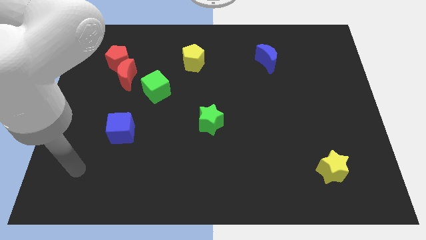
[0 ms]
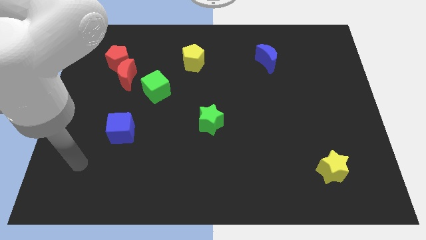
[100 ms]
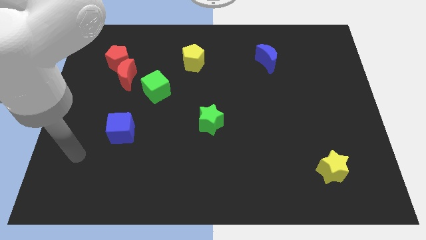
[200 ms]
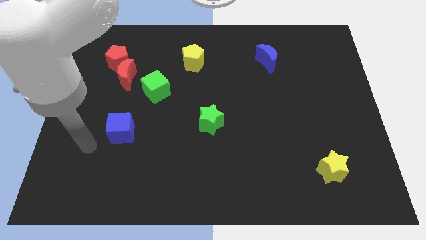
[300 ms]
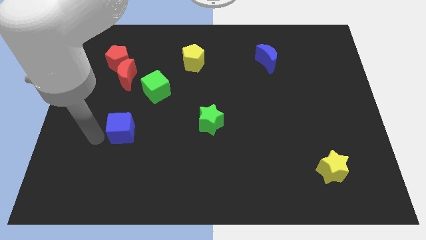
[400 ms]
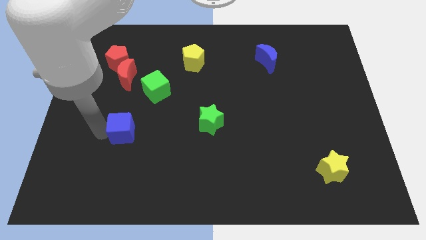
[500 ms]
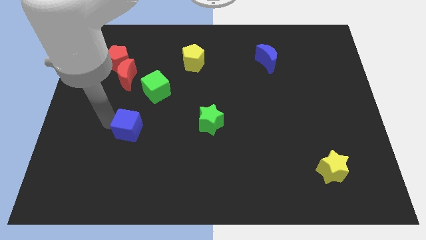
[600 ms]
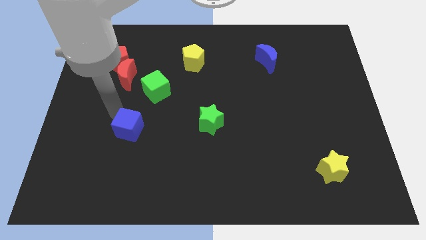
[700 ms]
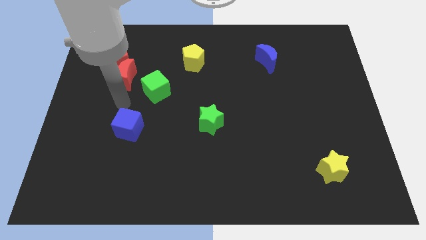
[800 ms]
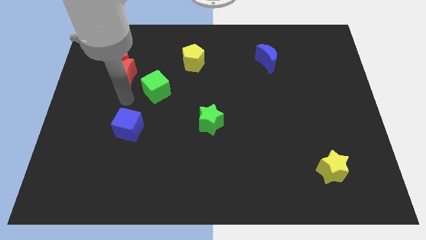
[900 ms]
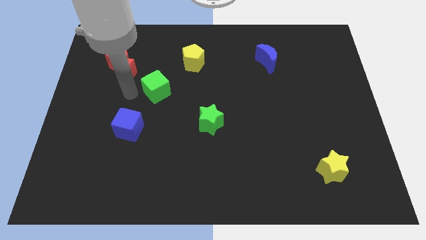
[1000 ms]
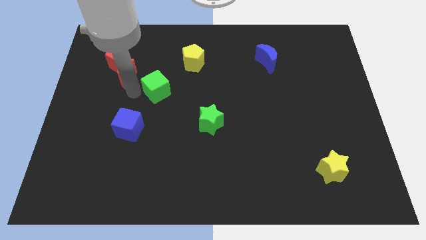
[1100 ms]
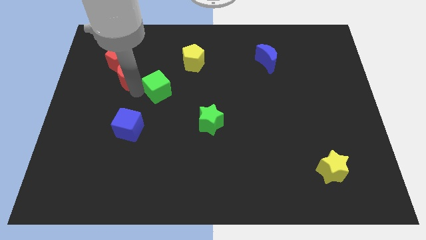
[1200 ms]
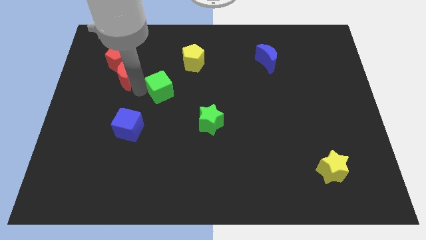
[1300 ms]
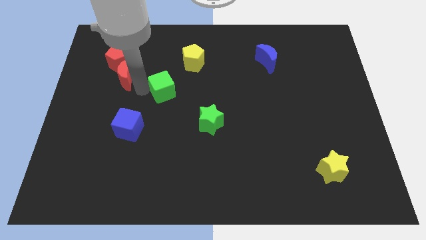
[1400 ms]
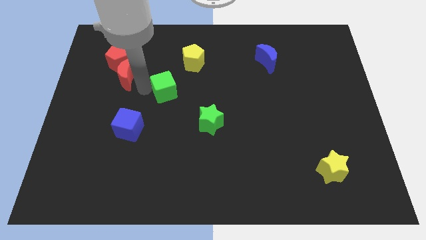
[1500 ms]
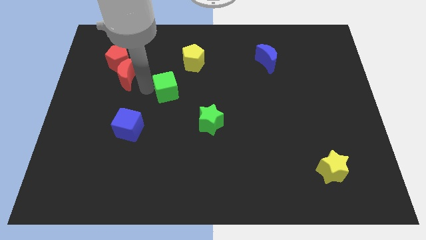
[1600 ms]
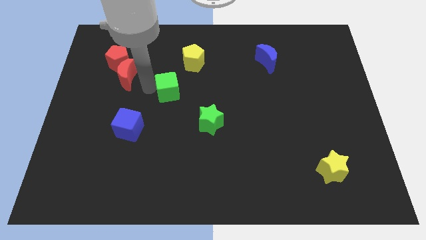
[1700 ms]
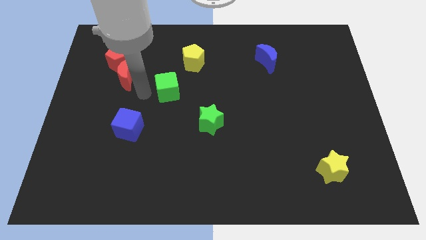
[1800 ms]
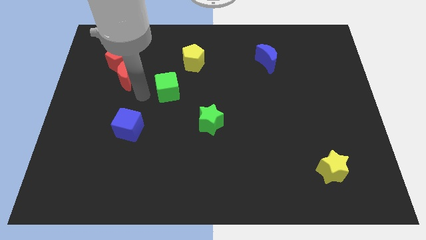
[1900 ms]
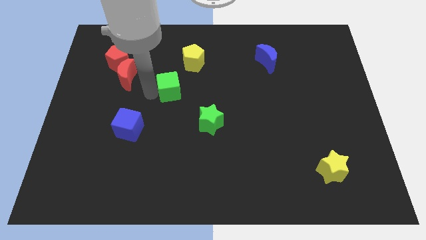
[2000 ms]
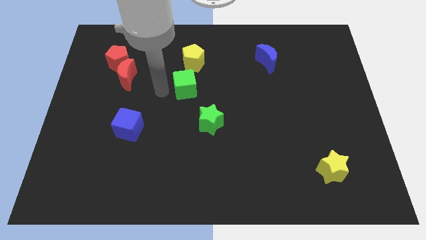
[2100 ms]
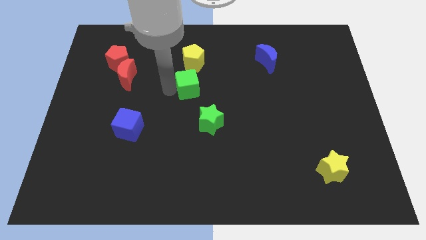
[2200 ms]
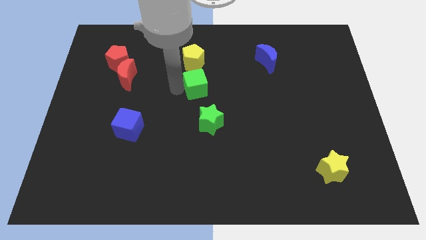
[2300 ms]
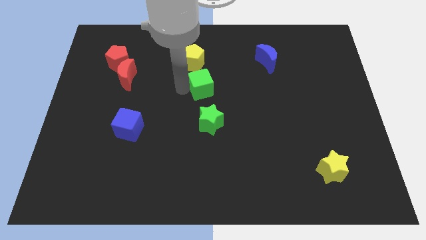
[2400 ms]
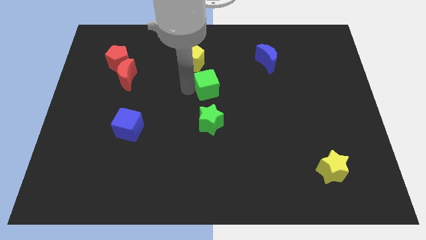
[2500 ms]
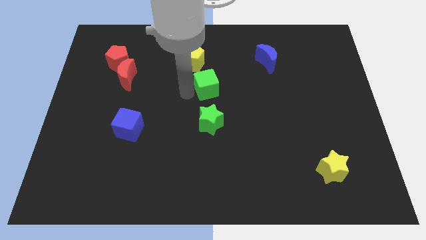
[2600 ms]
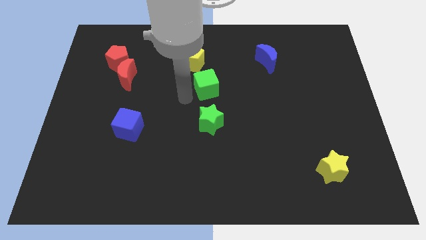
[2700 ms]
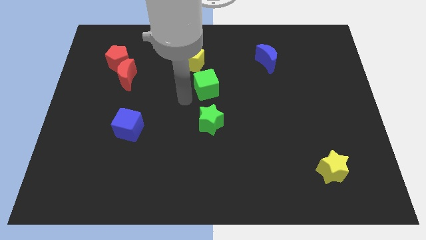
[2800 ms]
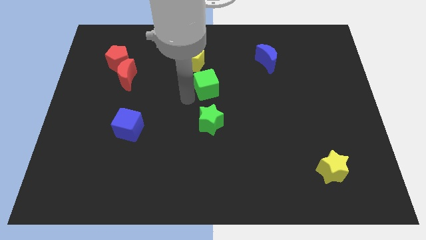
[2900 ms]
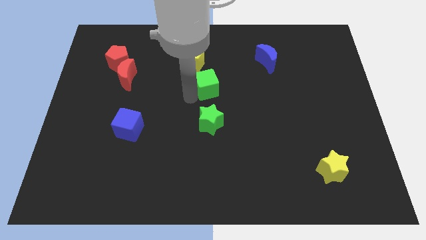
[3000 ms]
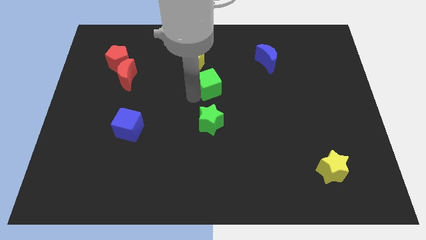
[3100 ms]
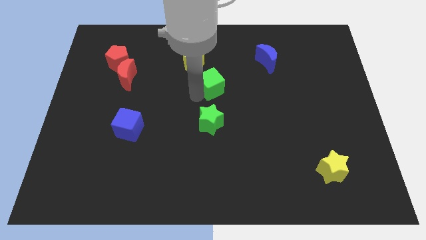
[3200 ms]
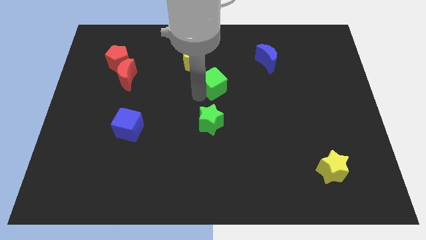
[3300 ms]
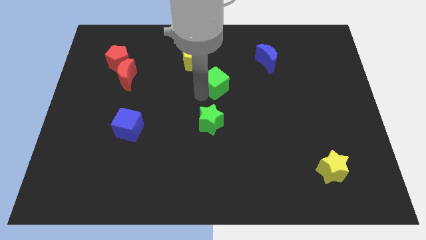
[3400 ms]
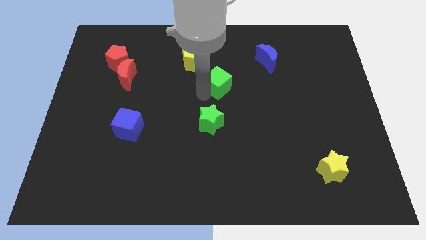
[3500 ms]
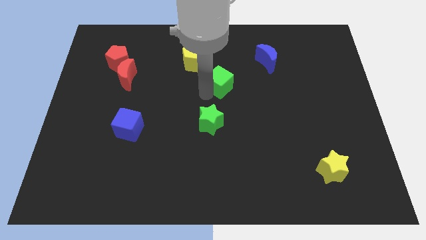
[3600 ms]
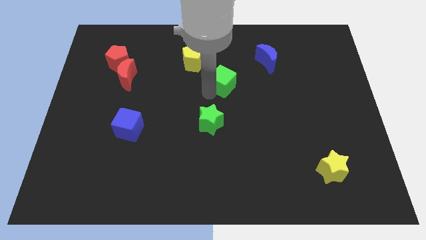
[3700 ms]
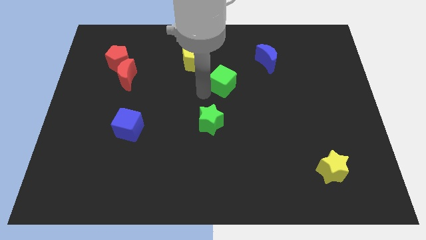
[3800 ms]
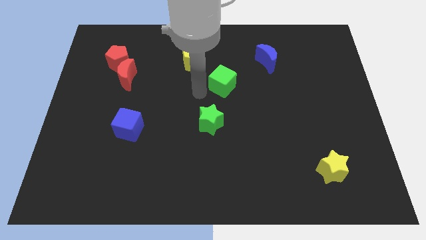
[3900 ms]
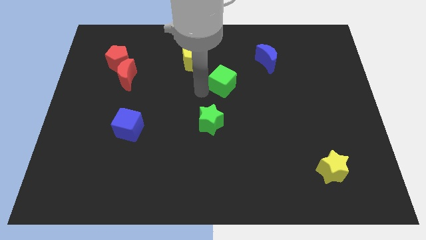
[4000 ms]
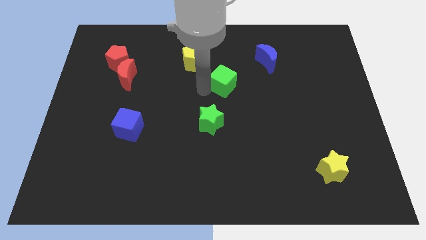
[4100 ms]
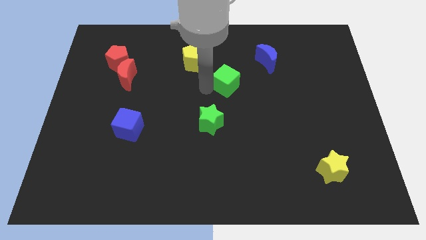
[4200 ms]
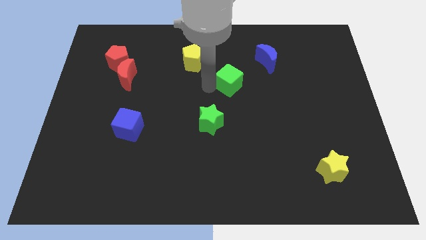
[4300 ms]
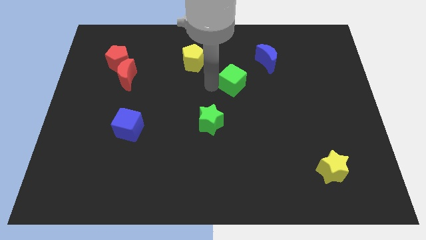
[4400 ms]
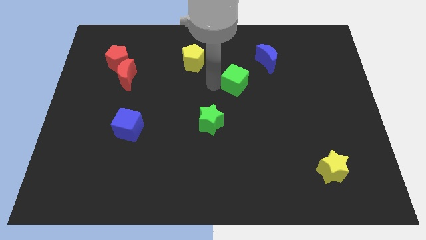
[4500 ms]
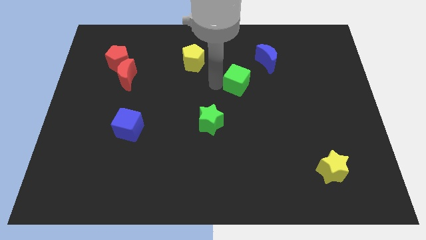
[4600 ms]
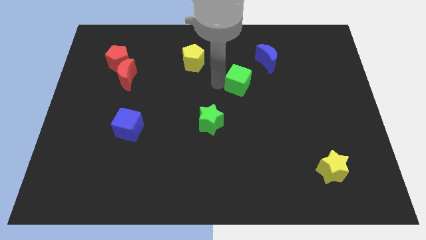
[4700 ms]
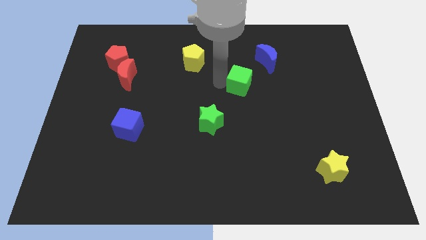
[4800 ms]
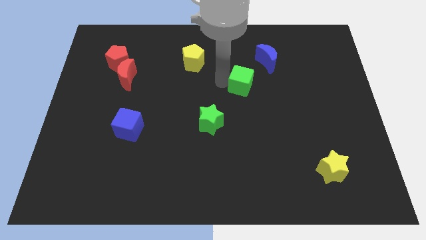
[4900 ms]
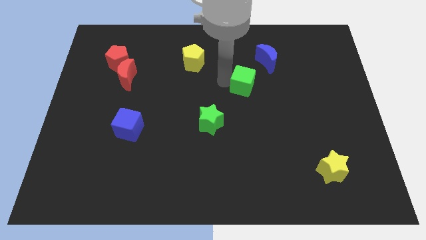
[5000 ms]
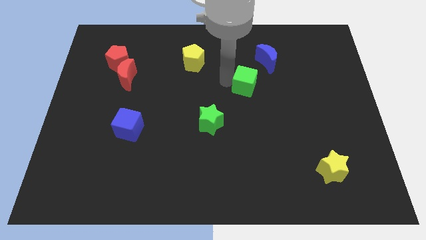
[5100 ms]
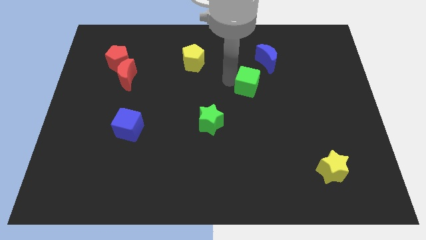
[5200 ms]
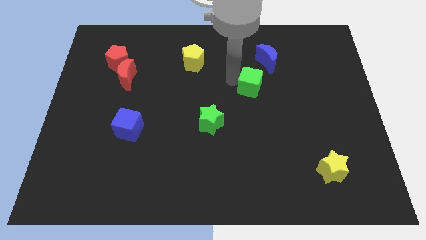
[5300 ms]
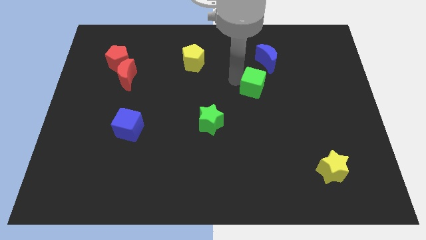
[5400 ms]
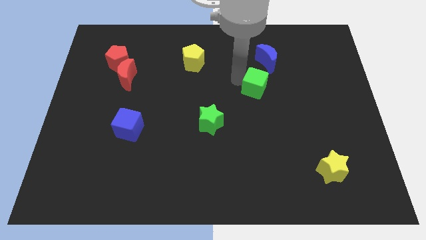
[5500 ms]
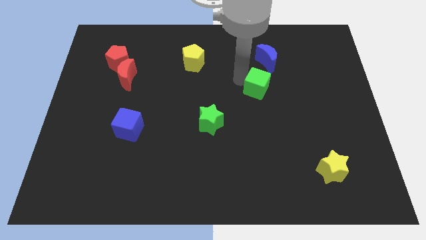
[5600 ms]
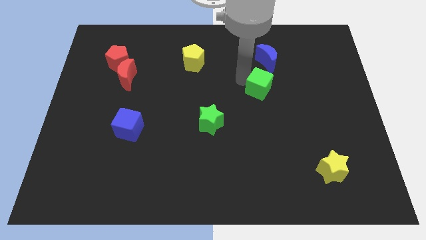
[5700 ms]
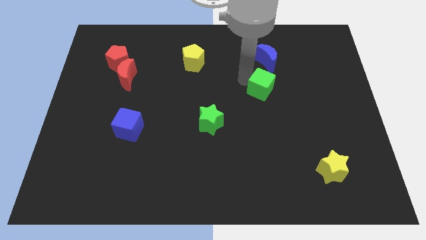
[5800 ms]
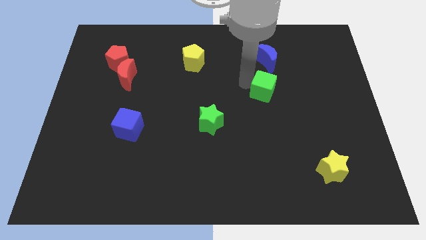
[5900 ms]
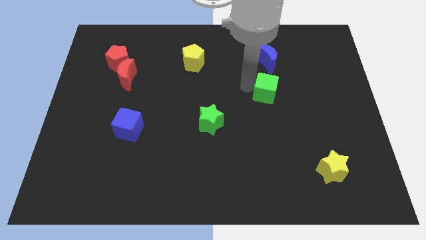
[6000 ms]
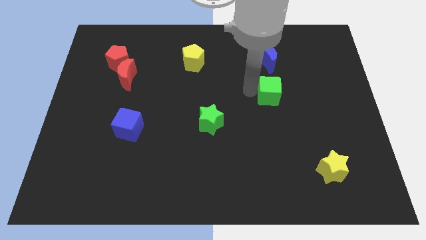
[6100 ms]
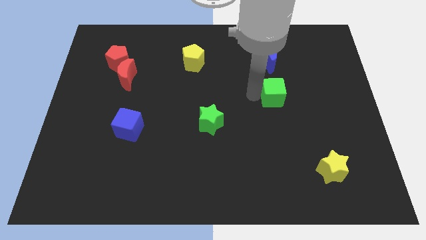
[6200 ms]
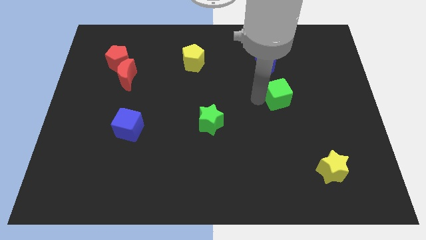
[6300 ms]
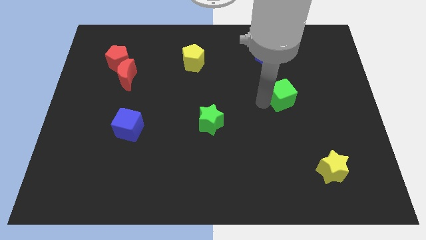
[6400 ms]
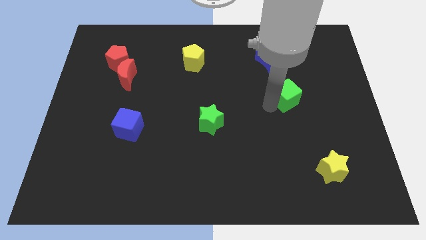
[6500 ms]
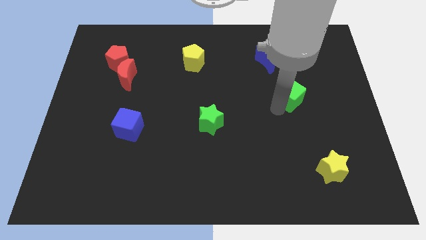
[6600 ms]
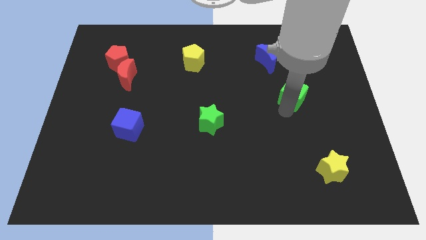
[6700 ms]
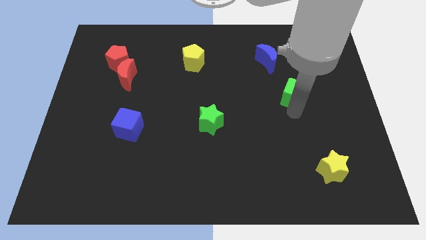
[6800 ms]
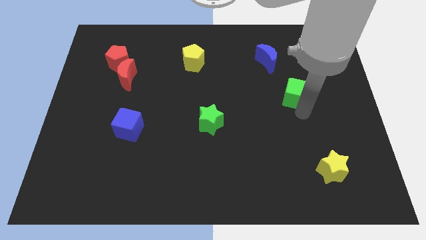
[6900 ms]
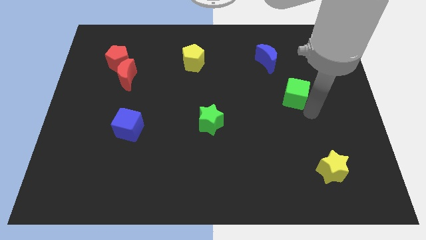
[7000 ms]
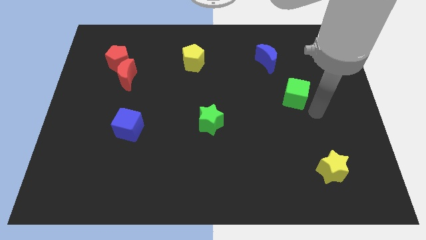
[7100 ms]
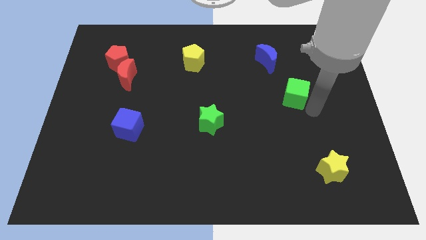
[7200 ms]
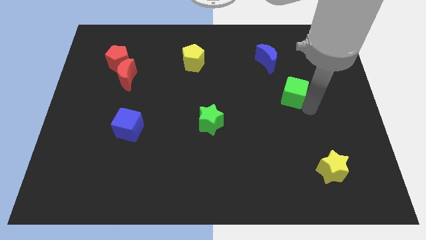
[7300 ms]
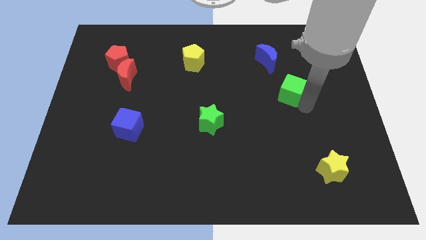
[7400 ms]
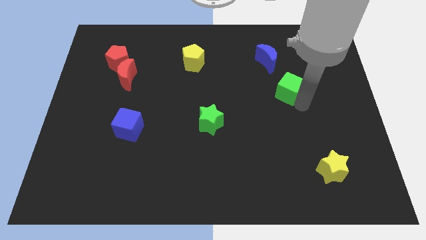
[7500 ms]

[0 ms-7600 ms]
put the green cube to the bottom right of the blue moon
